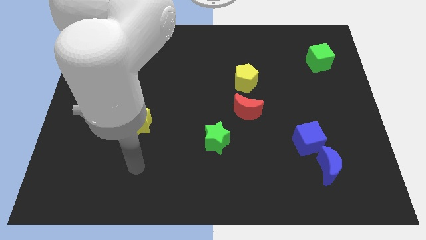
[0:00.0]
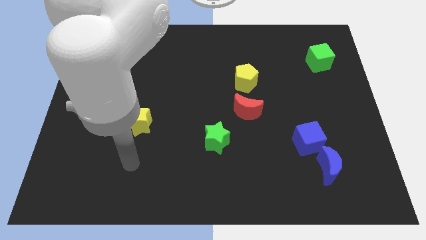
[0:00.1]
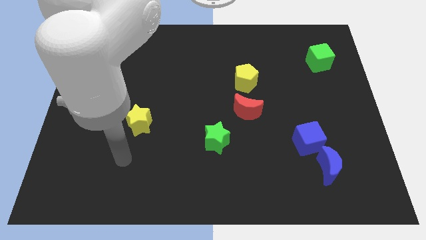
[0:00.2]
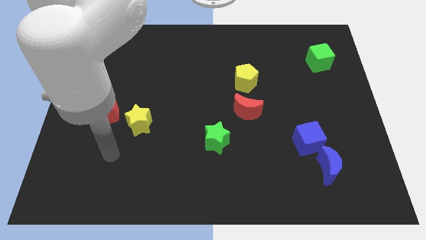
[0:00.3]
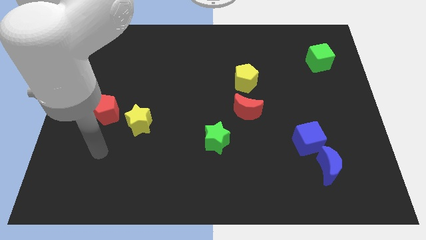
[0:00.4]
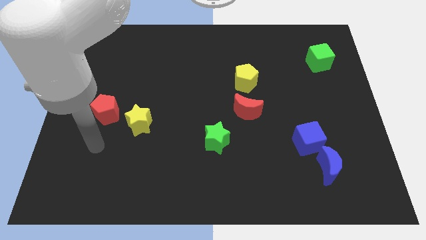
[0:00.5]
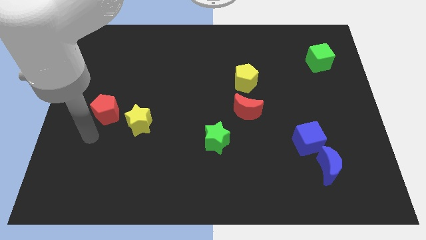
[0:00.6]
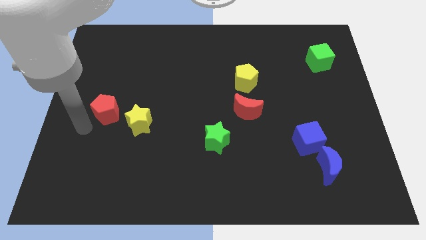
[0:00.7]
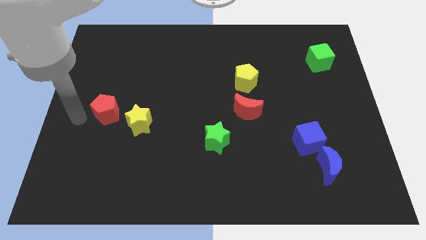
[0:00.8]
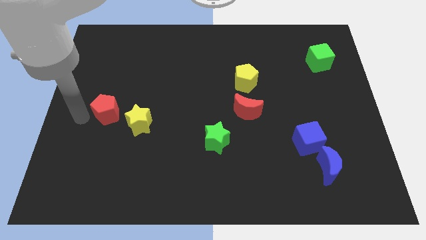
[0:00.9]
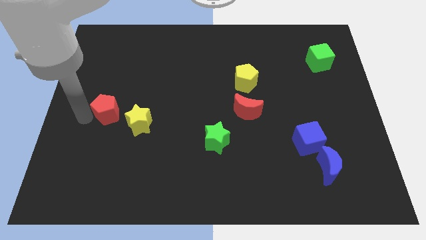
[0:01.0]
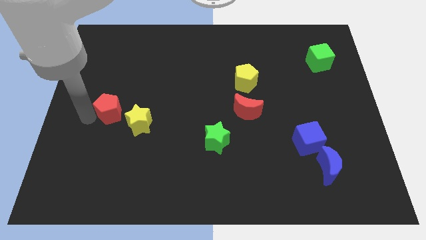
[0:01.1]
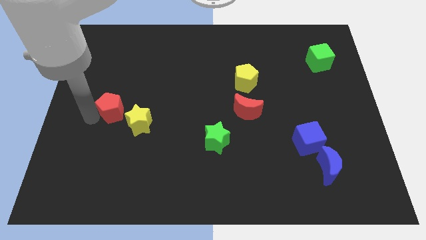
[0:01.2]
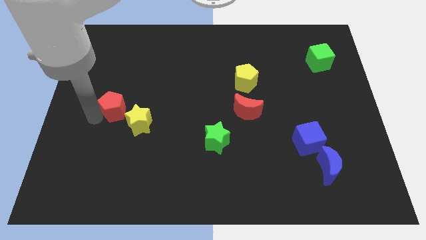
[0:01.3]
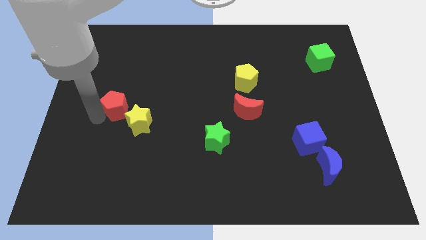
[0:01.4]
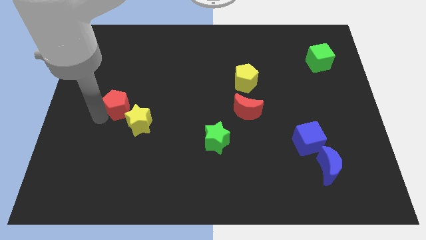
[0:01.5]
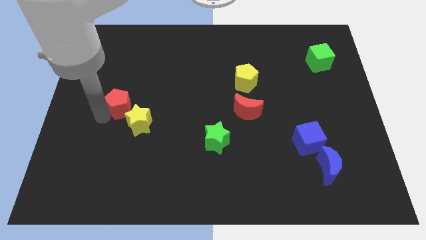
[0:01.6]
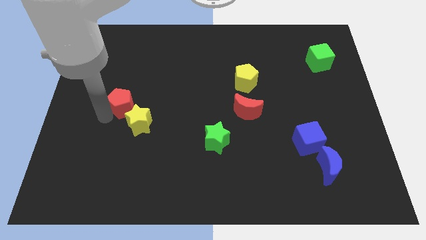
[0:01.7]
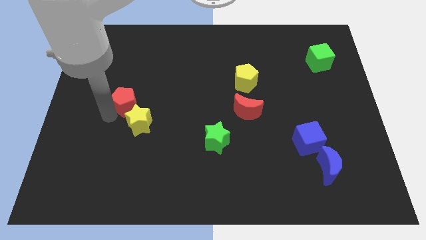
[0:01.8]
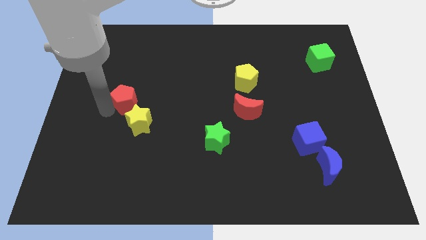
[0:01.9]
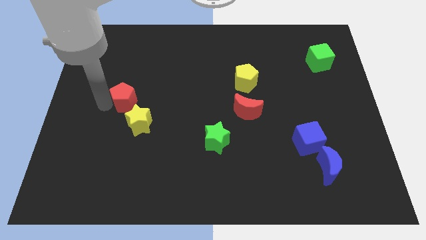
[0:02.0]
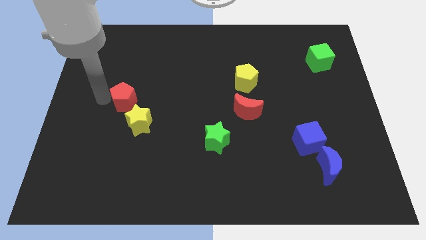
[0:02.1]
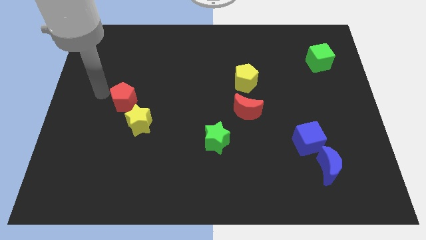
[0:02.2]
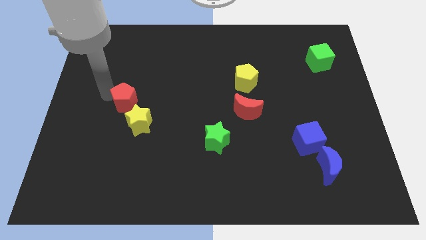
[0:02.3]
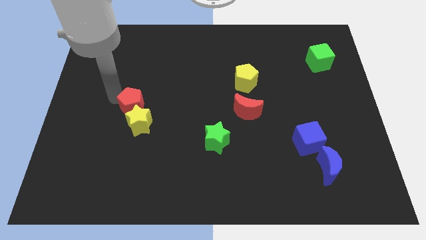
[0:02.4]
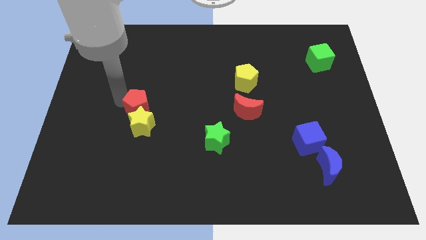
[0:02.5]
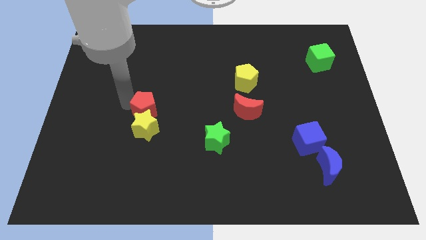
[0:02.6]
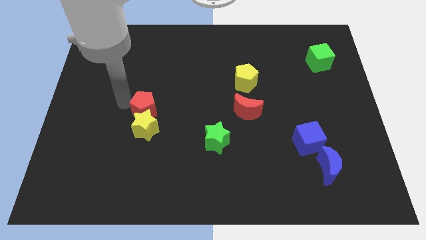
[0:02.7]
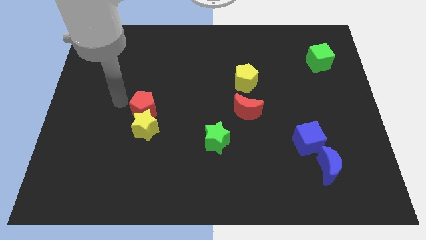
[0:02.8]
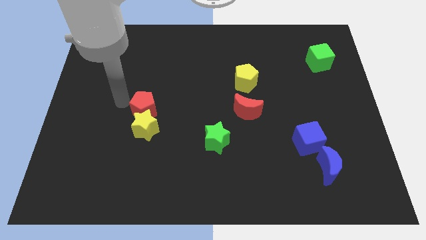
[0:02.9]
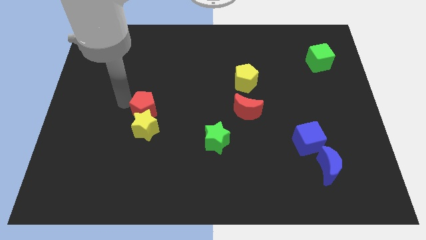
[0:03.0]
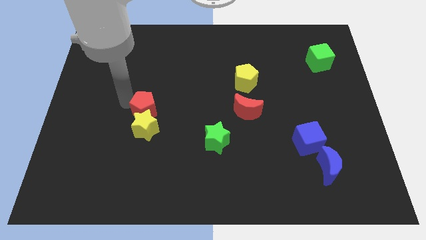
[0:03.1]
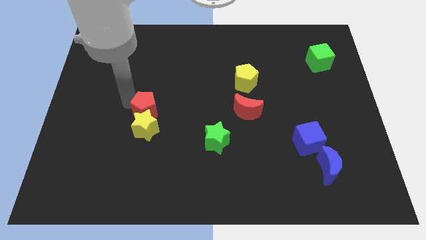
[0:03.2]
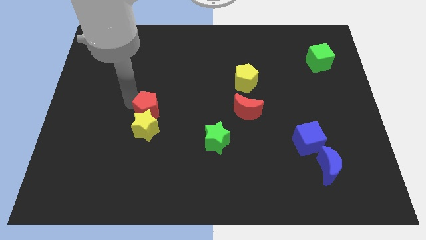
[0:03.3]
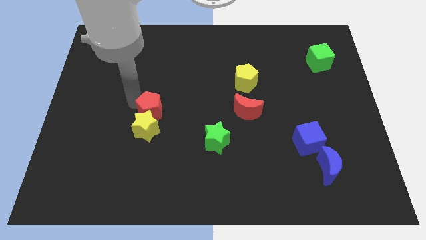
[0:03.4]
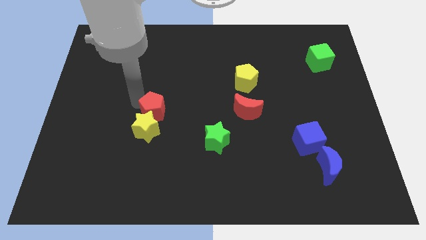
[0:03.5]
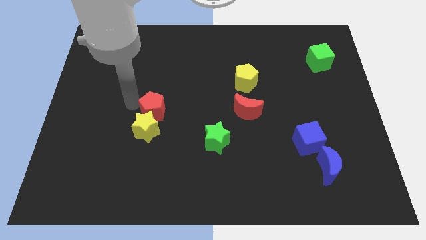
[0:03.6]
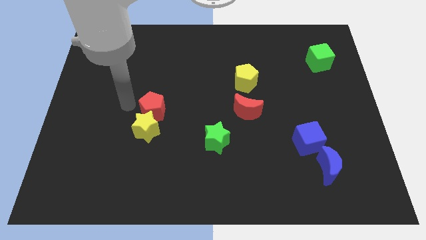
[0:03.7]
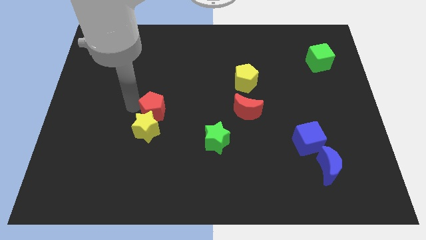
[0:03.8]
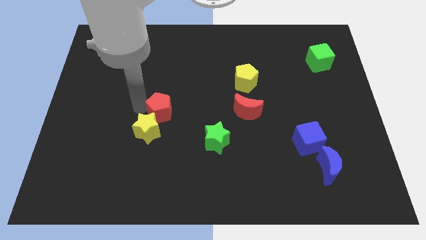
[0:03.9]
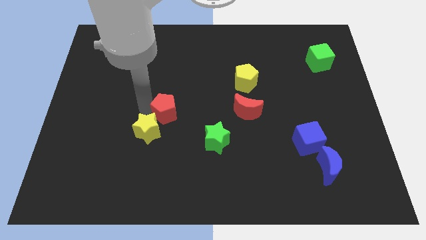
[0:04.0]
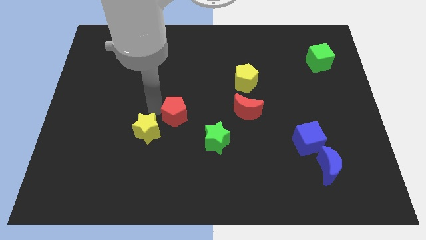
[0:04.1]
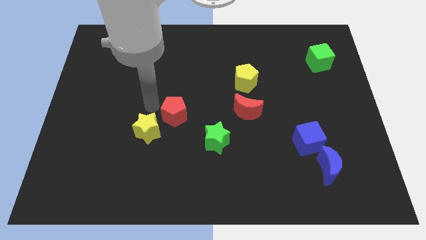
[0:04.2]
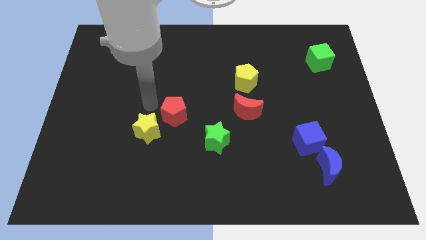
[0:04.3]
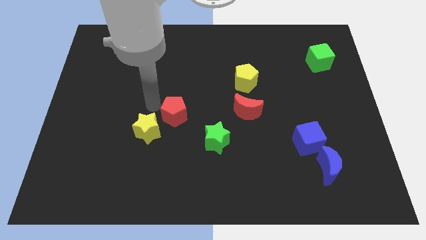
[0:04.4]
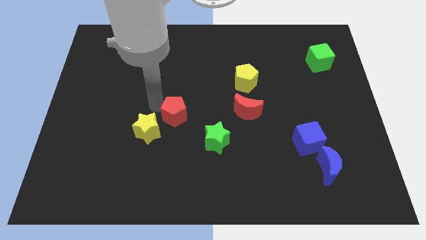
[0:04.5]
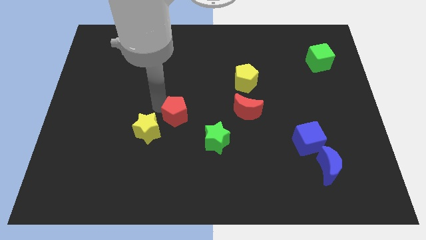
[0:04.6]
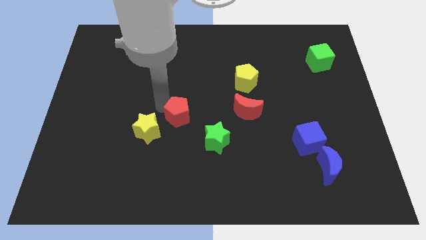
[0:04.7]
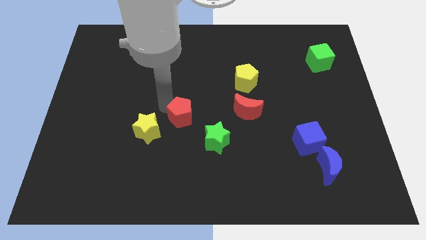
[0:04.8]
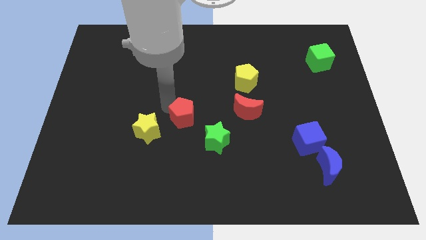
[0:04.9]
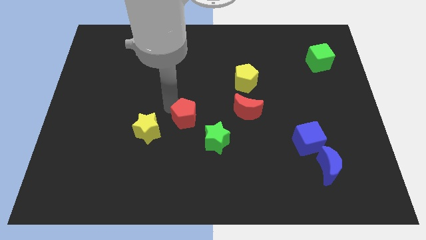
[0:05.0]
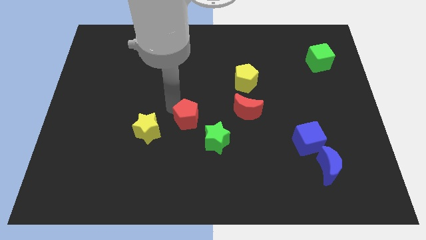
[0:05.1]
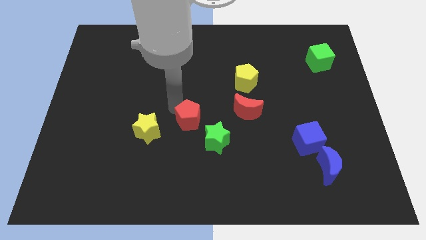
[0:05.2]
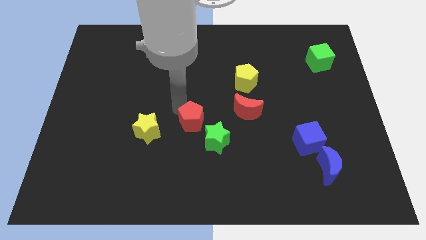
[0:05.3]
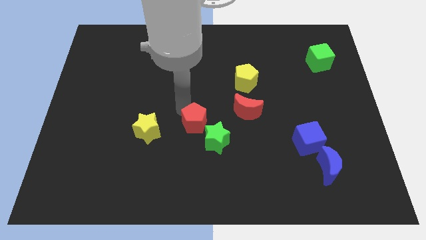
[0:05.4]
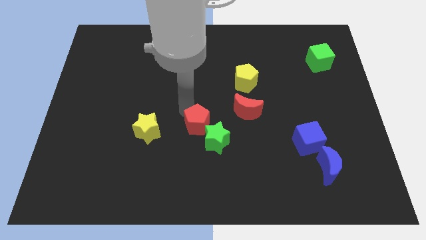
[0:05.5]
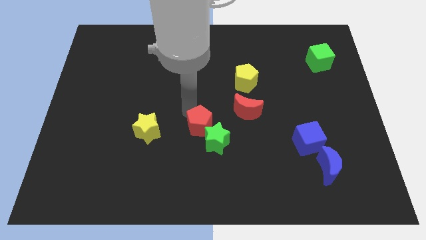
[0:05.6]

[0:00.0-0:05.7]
slide the red pentagon to the green star

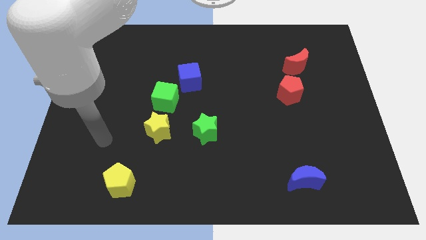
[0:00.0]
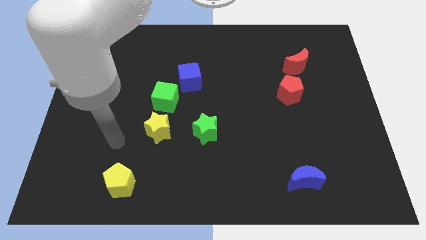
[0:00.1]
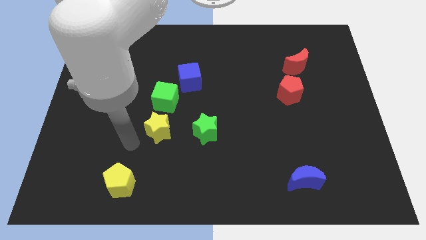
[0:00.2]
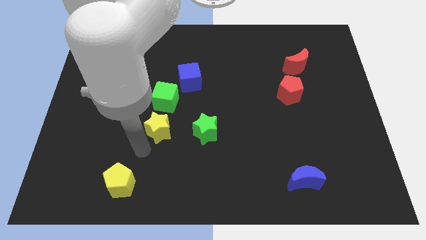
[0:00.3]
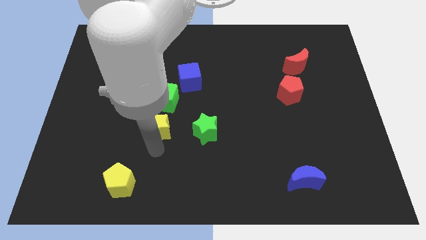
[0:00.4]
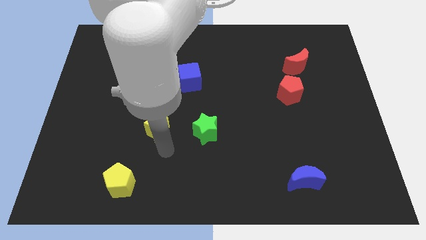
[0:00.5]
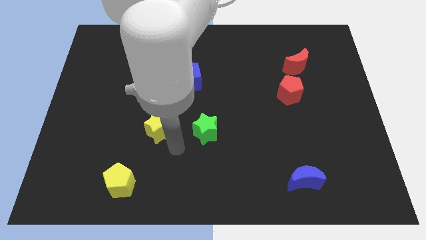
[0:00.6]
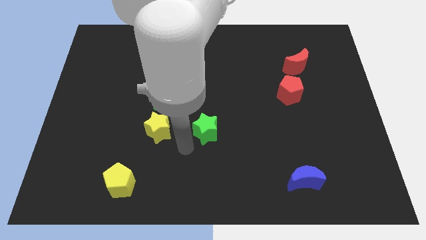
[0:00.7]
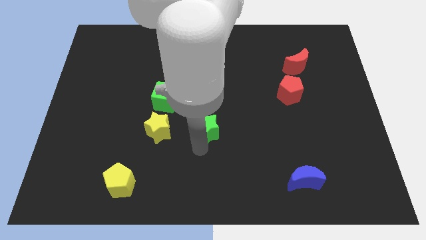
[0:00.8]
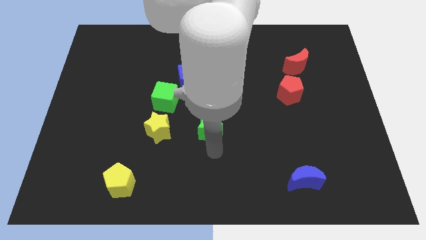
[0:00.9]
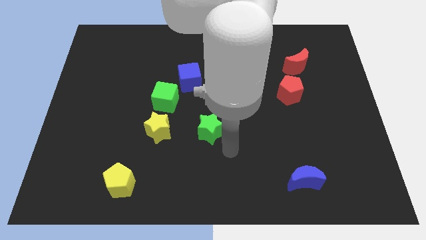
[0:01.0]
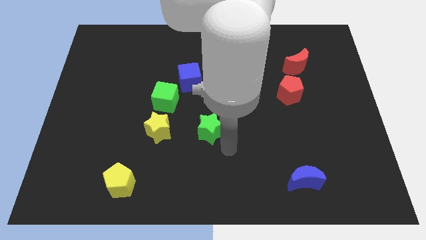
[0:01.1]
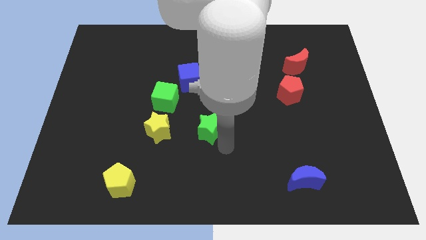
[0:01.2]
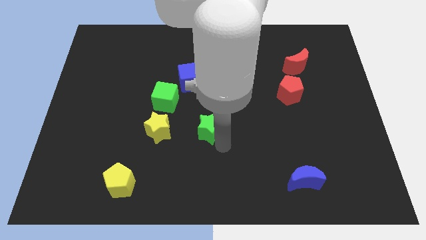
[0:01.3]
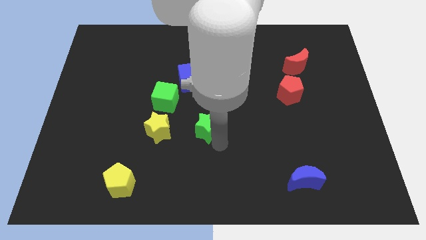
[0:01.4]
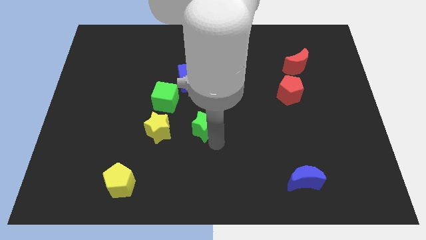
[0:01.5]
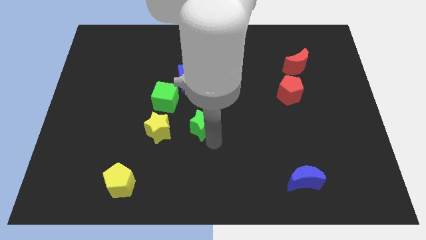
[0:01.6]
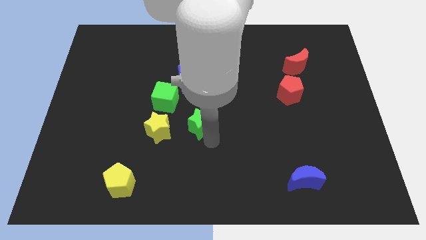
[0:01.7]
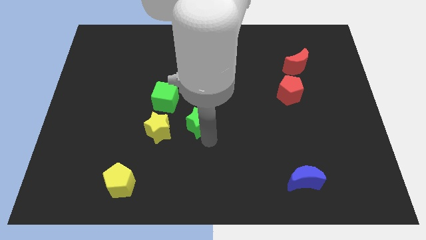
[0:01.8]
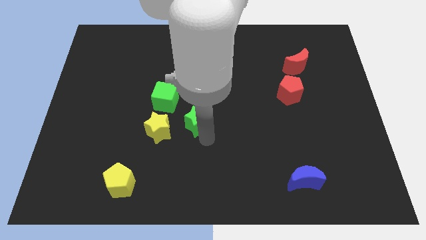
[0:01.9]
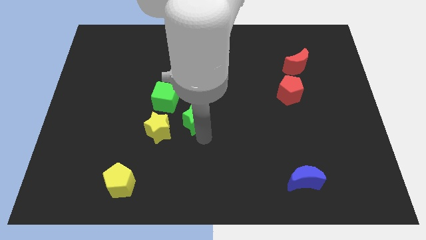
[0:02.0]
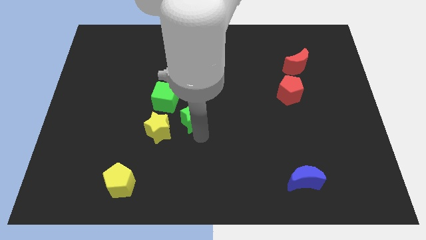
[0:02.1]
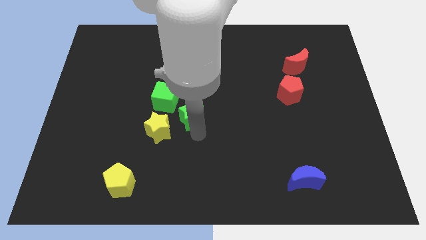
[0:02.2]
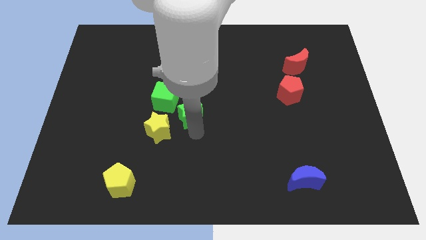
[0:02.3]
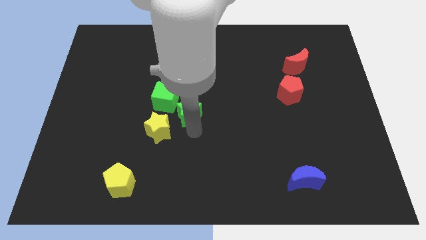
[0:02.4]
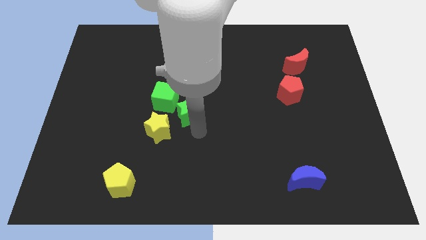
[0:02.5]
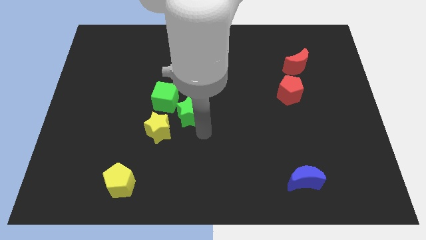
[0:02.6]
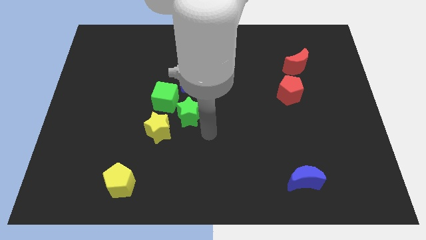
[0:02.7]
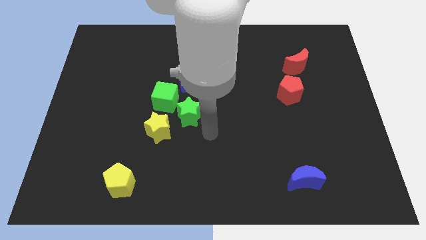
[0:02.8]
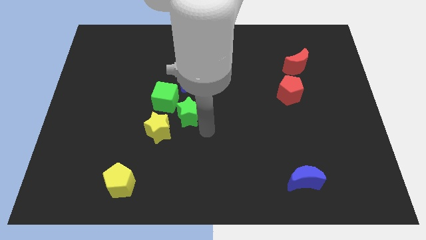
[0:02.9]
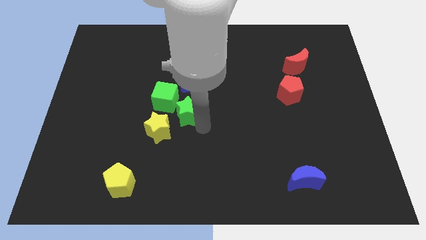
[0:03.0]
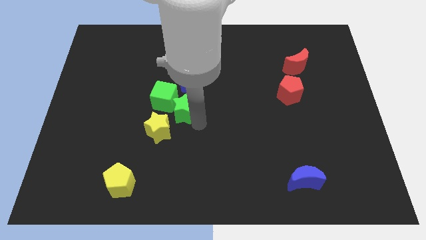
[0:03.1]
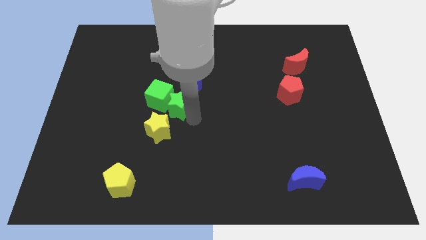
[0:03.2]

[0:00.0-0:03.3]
slide the green star to the green cube
